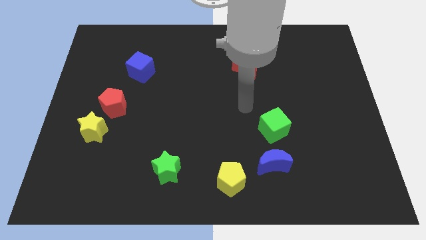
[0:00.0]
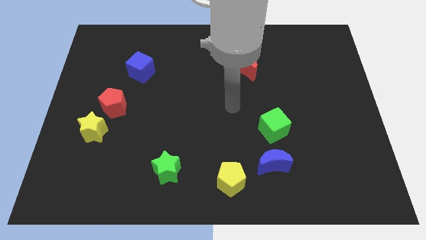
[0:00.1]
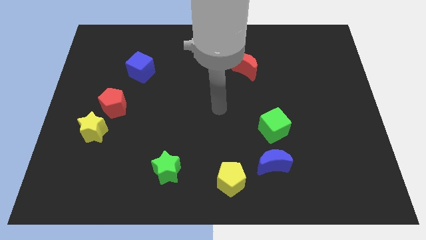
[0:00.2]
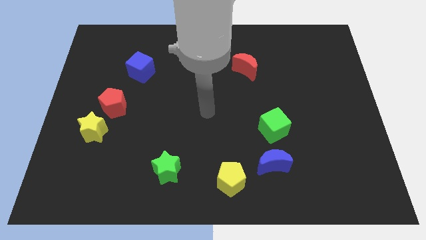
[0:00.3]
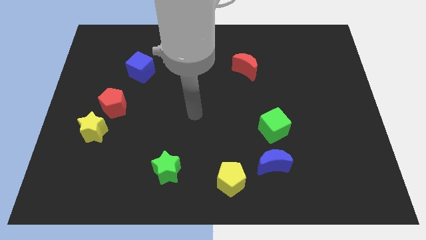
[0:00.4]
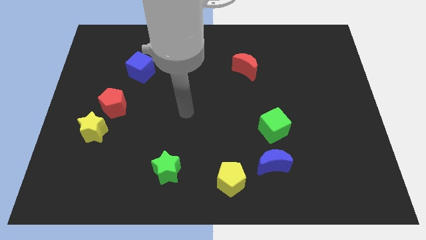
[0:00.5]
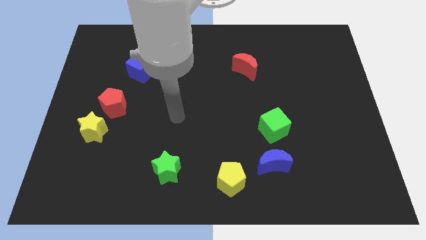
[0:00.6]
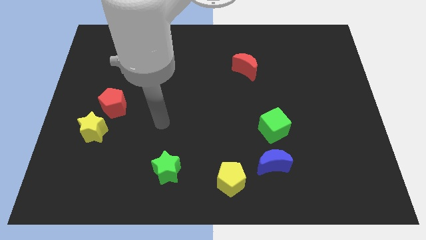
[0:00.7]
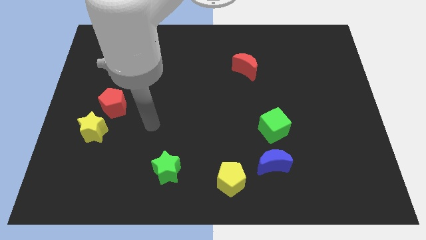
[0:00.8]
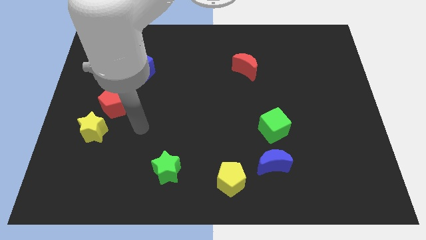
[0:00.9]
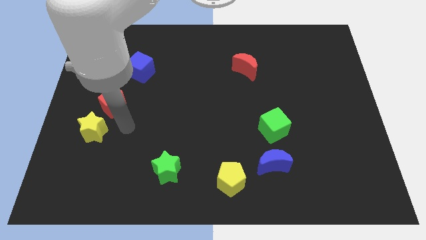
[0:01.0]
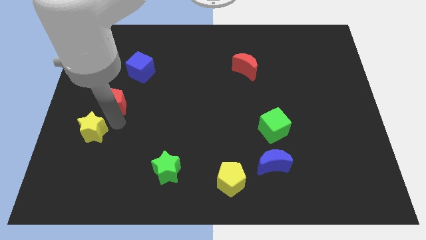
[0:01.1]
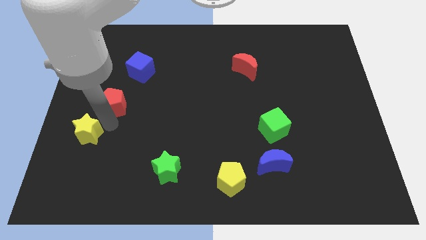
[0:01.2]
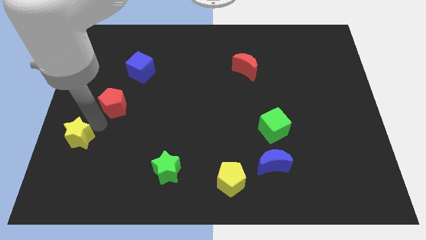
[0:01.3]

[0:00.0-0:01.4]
separate the red pentagon from the yellow star

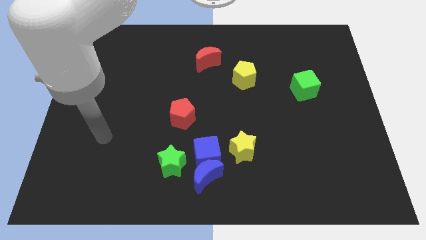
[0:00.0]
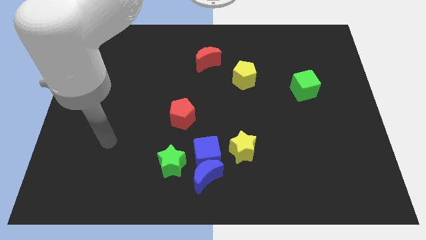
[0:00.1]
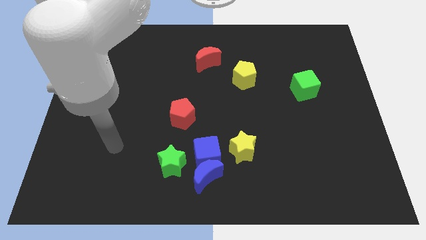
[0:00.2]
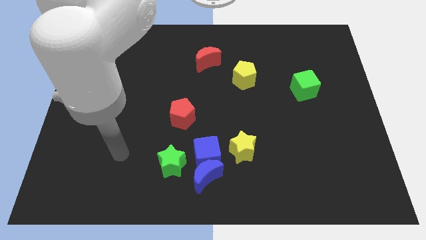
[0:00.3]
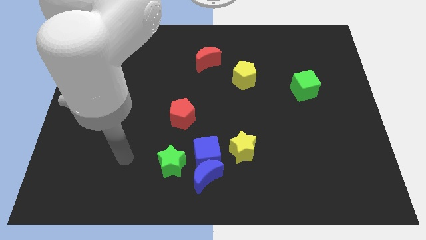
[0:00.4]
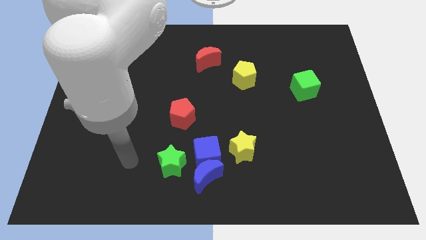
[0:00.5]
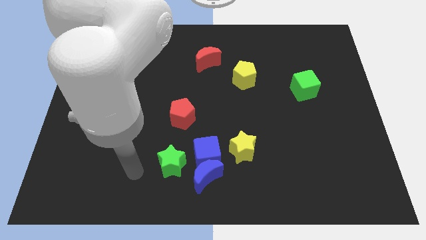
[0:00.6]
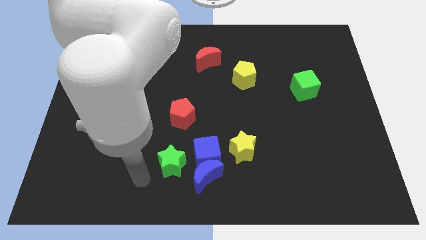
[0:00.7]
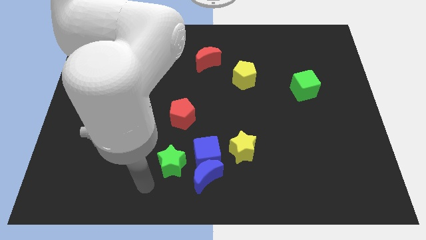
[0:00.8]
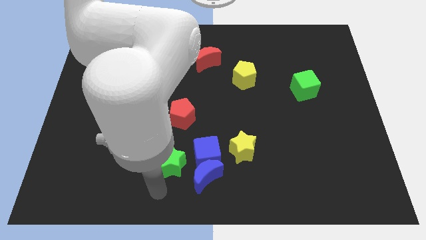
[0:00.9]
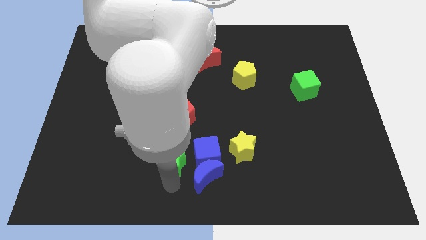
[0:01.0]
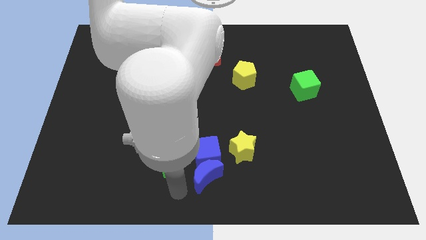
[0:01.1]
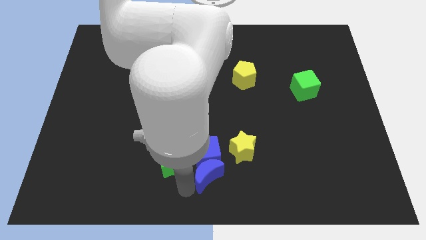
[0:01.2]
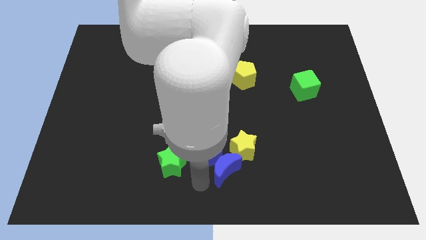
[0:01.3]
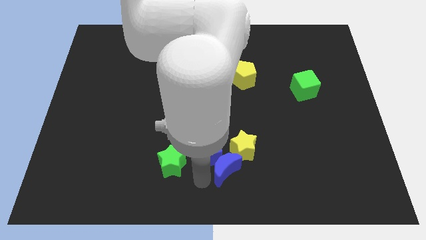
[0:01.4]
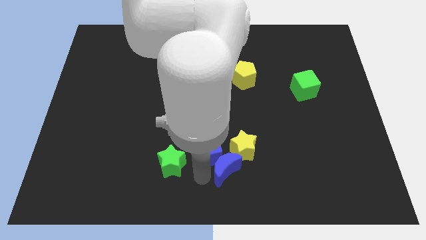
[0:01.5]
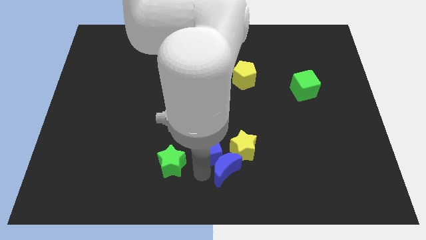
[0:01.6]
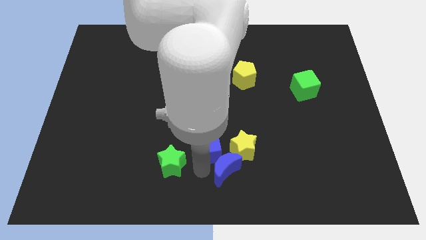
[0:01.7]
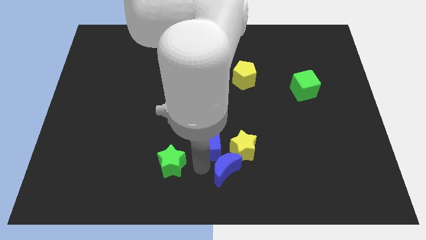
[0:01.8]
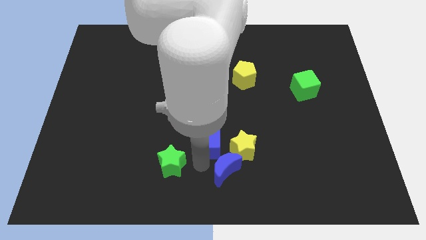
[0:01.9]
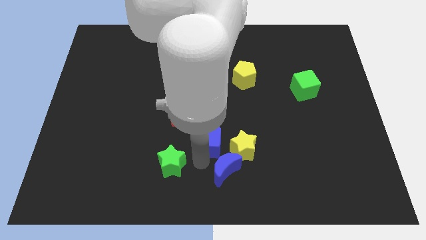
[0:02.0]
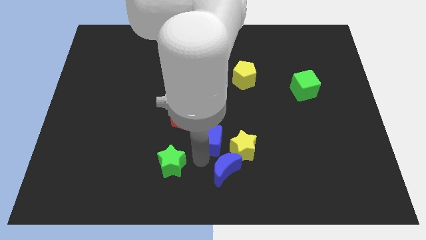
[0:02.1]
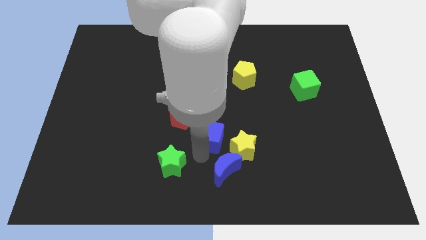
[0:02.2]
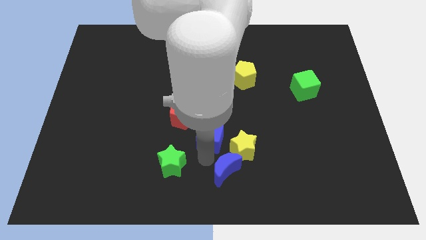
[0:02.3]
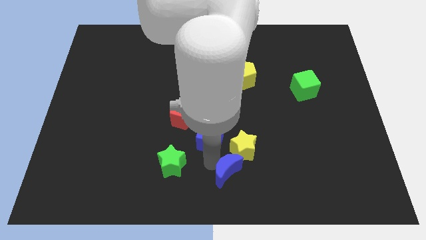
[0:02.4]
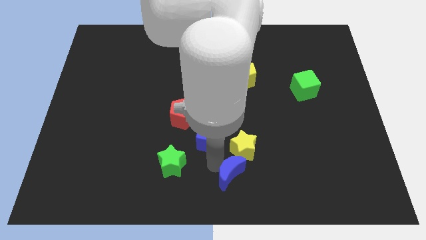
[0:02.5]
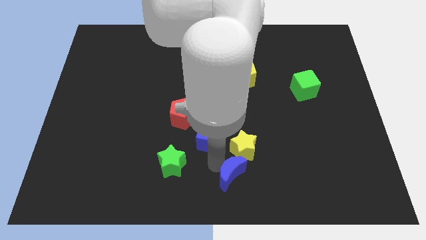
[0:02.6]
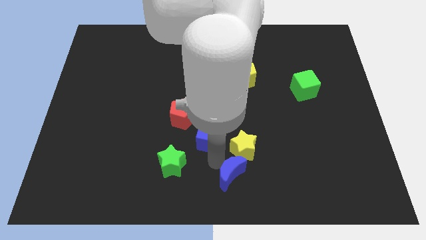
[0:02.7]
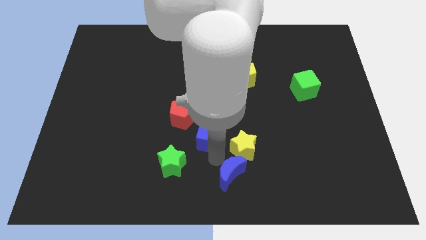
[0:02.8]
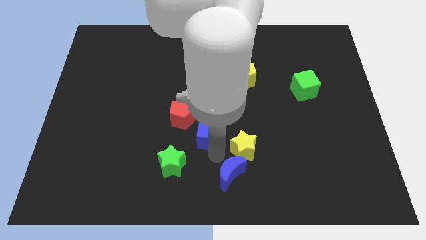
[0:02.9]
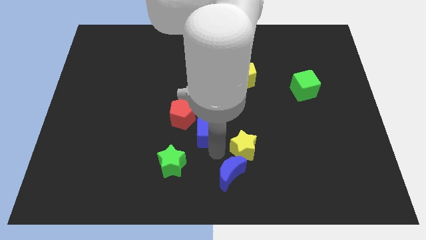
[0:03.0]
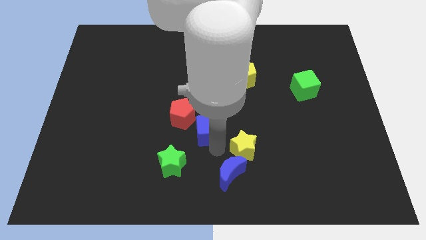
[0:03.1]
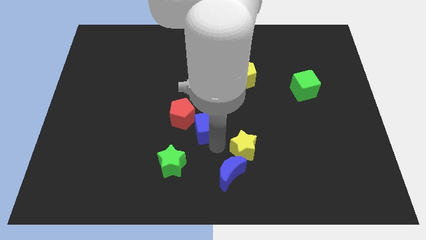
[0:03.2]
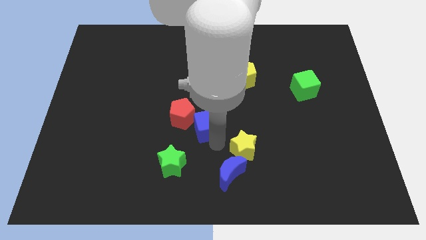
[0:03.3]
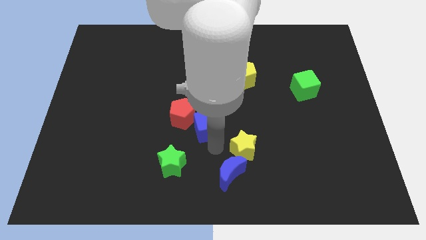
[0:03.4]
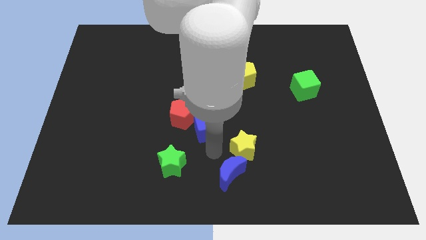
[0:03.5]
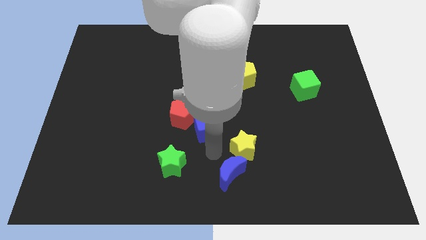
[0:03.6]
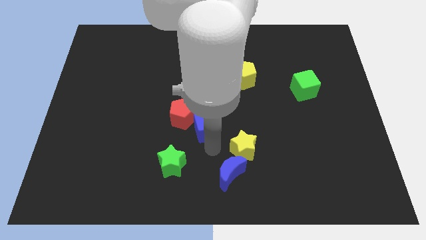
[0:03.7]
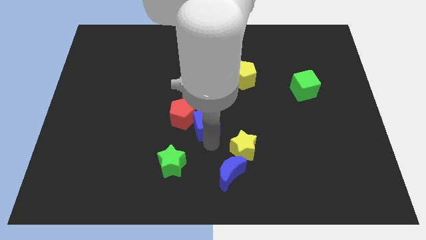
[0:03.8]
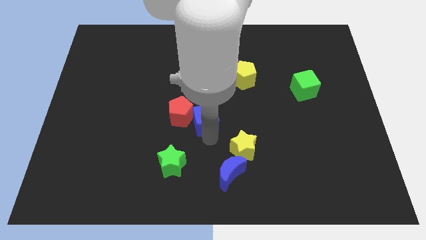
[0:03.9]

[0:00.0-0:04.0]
move the blue cube away from the group

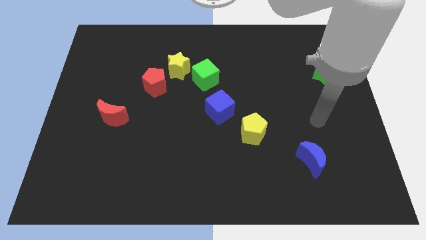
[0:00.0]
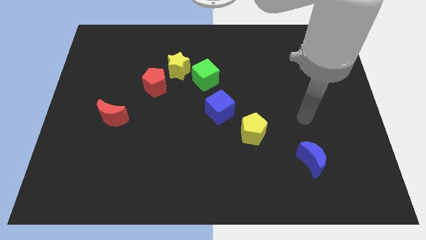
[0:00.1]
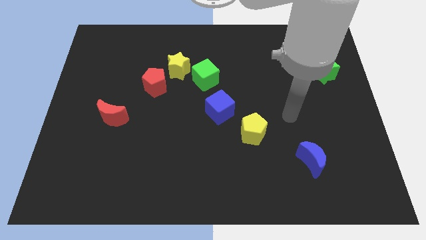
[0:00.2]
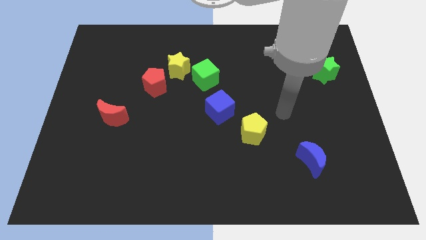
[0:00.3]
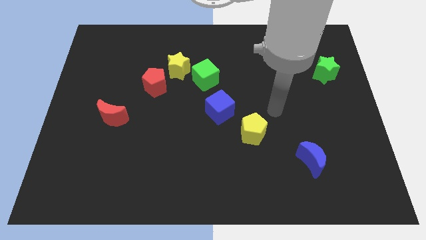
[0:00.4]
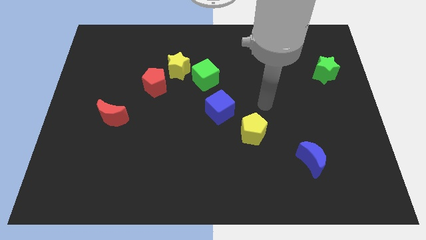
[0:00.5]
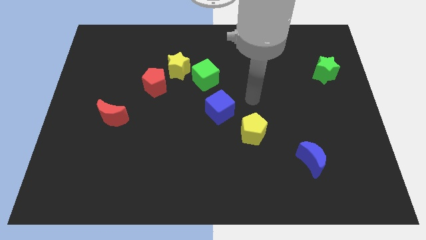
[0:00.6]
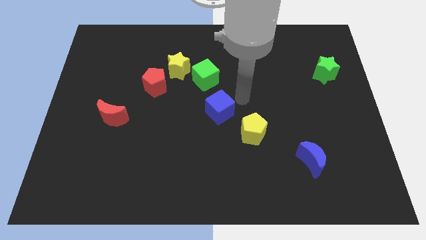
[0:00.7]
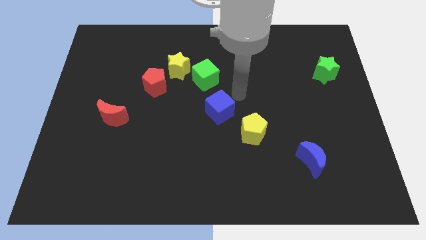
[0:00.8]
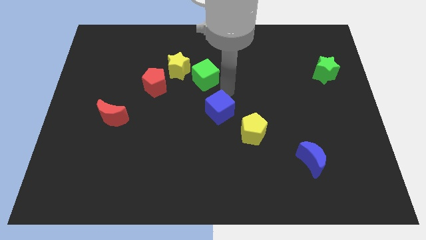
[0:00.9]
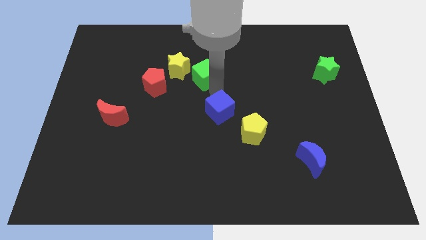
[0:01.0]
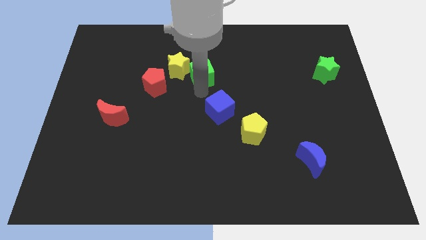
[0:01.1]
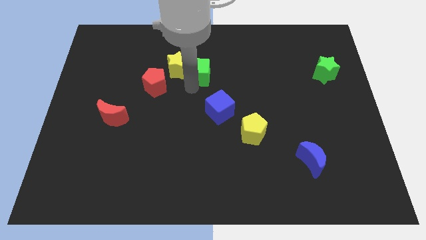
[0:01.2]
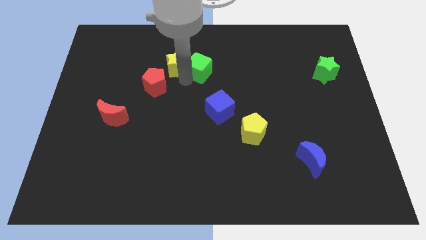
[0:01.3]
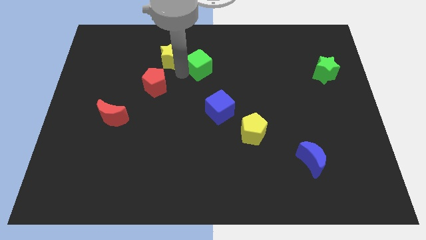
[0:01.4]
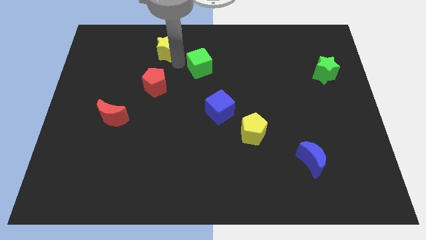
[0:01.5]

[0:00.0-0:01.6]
pull the green cube apart from the yellow star

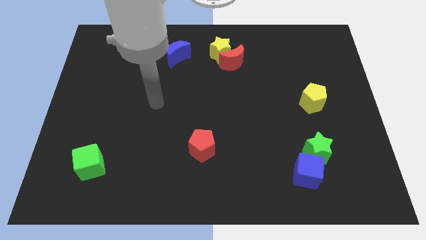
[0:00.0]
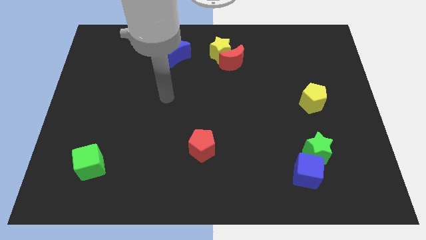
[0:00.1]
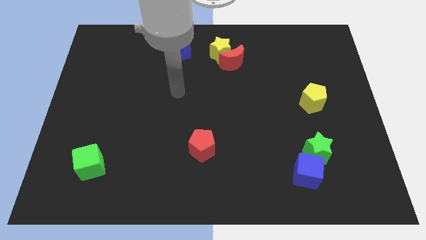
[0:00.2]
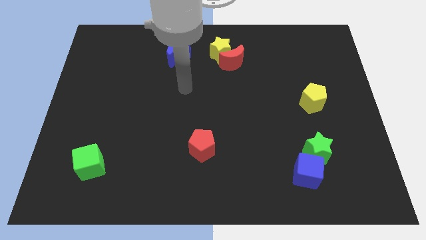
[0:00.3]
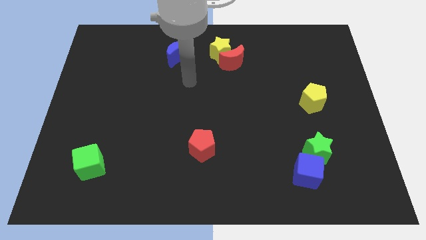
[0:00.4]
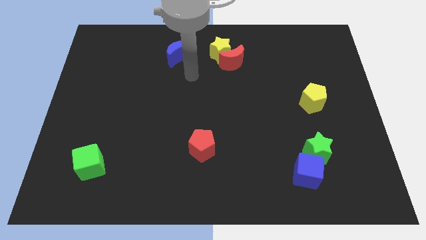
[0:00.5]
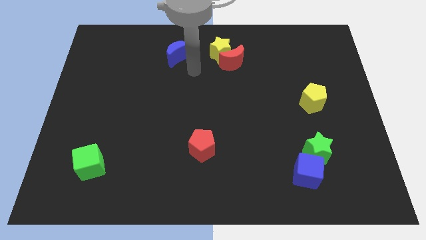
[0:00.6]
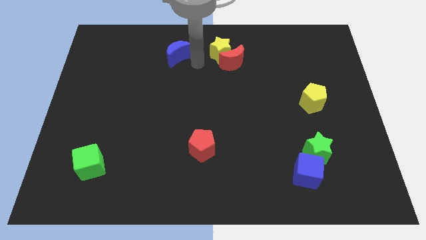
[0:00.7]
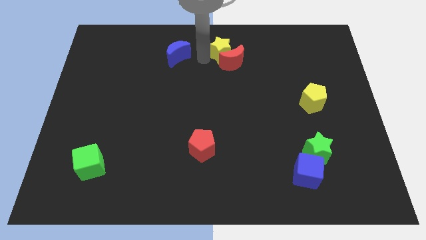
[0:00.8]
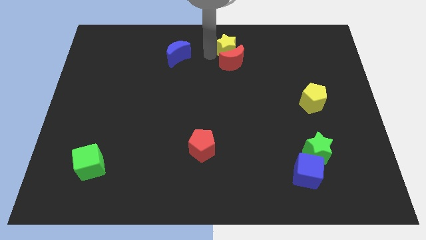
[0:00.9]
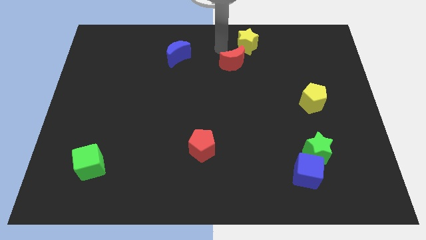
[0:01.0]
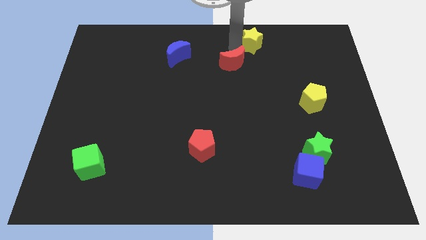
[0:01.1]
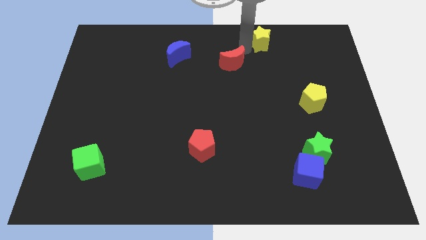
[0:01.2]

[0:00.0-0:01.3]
separate the red moon from the yellow star

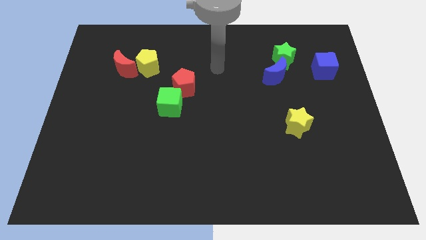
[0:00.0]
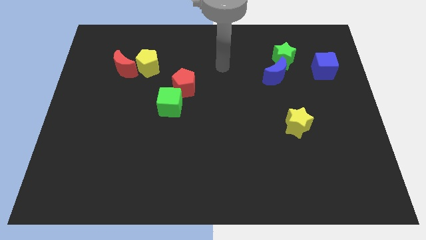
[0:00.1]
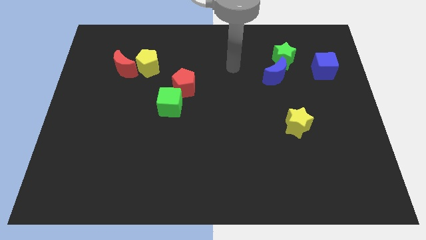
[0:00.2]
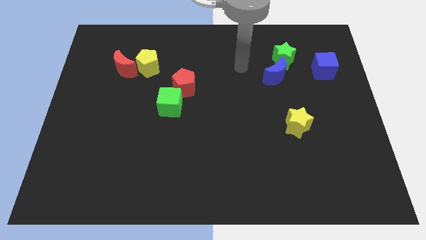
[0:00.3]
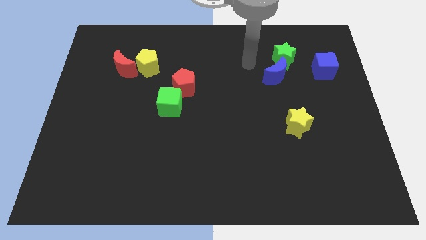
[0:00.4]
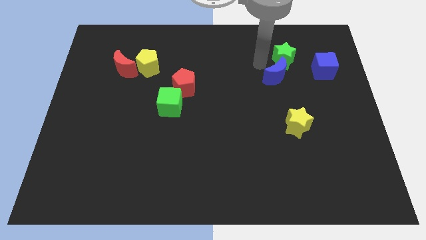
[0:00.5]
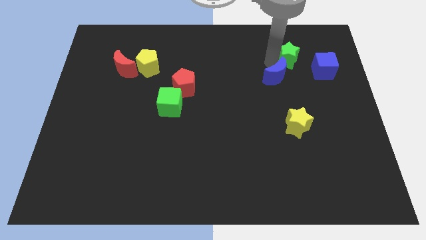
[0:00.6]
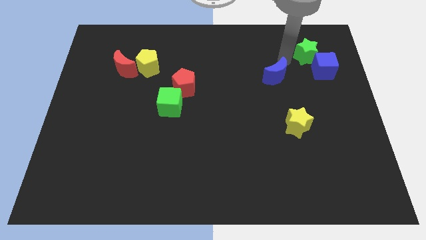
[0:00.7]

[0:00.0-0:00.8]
pull the blue moon apart from the green star

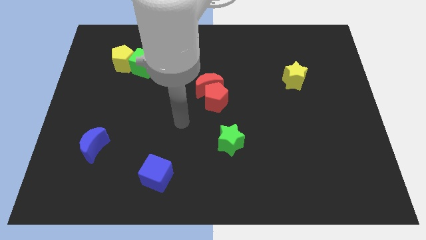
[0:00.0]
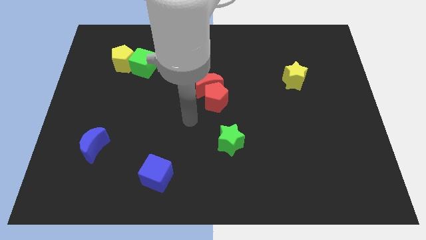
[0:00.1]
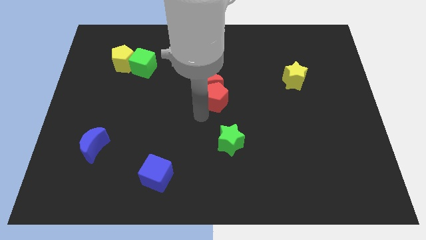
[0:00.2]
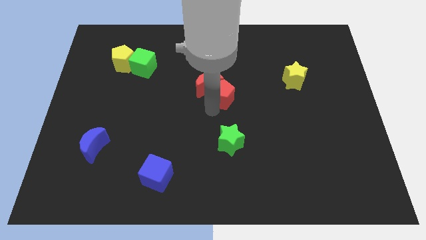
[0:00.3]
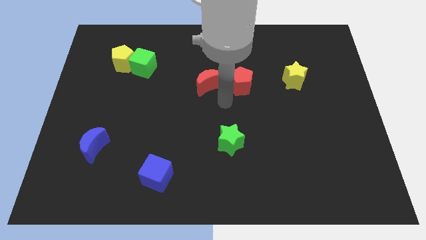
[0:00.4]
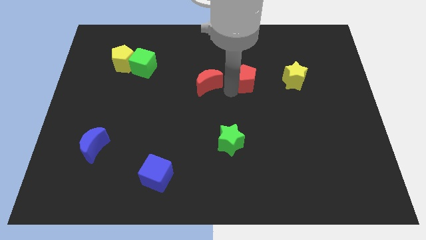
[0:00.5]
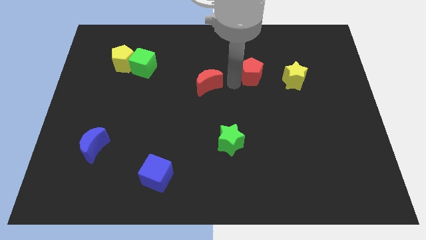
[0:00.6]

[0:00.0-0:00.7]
pull the red moon apart from the red pentagon
